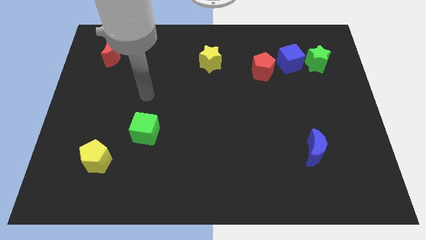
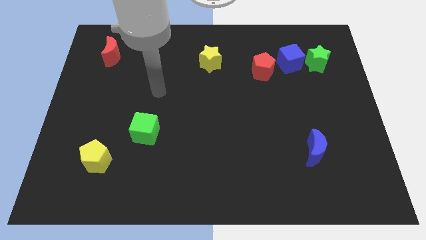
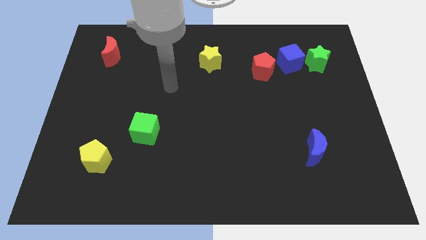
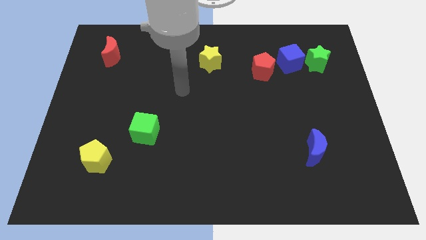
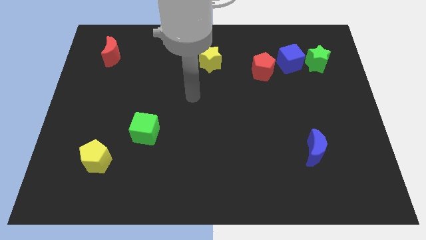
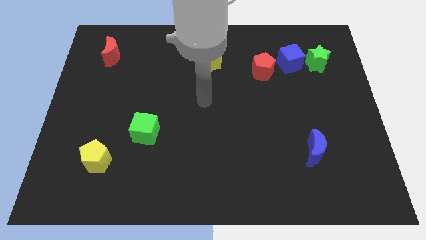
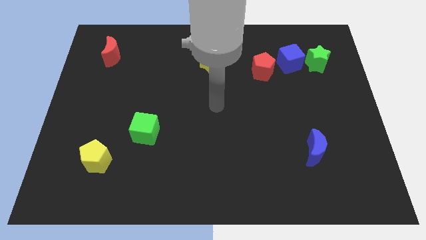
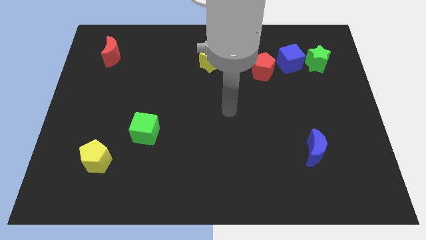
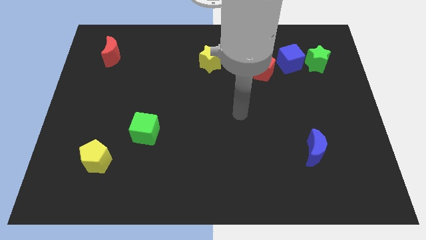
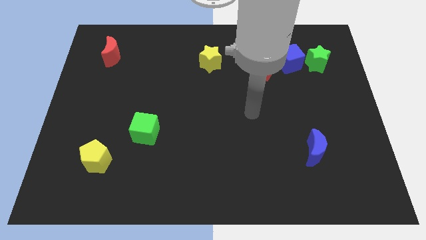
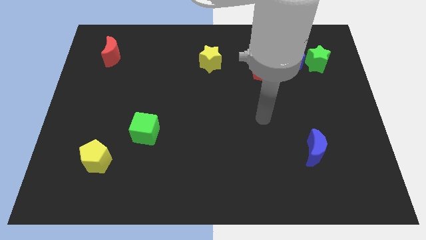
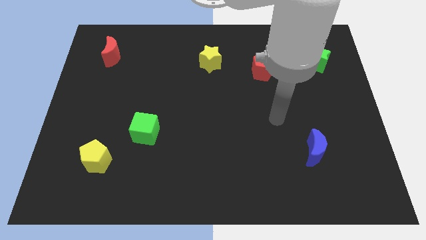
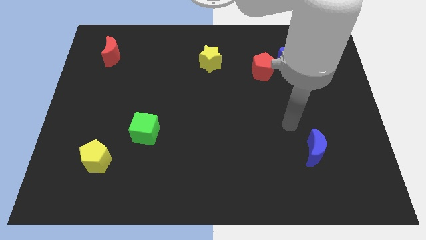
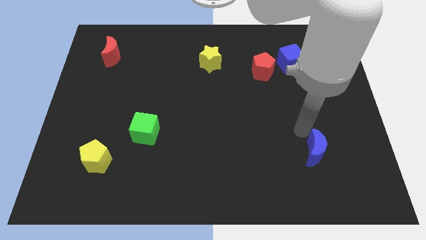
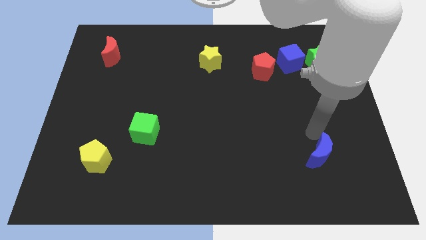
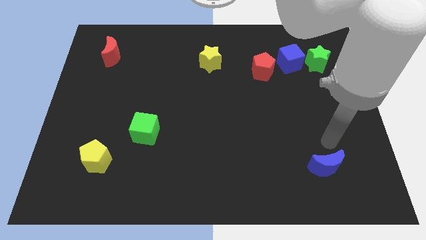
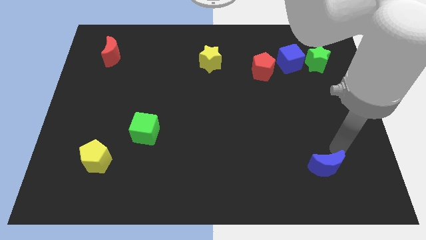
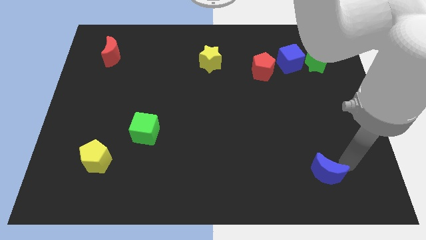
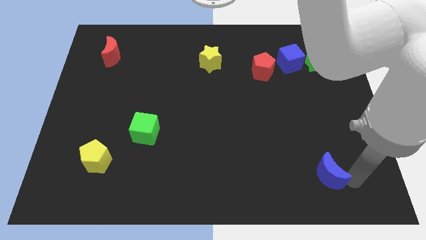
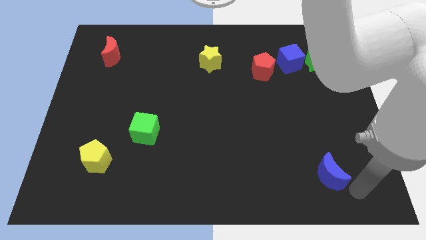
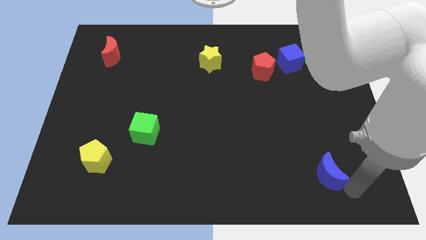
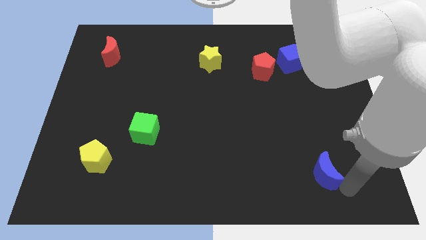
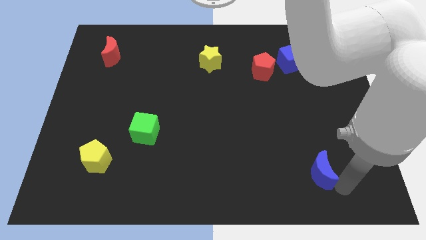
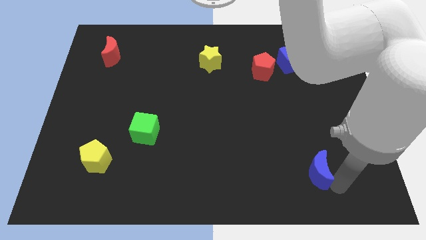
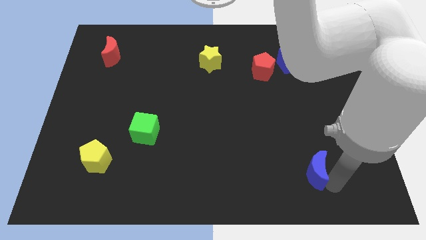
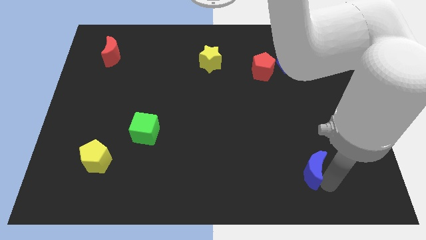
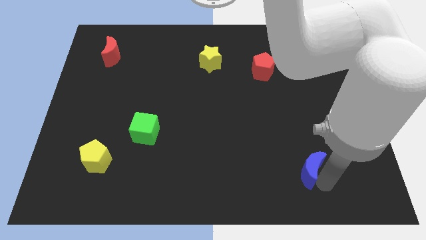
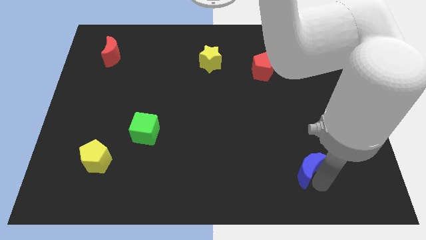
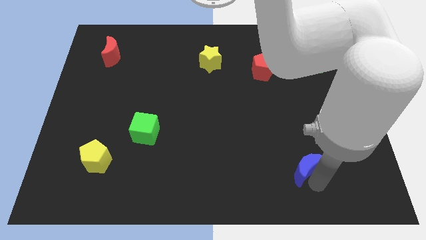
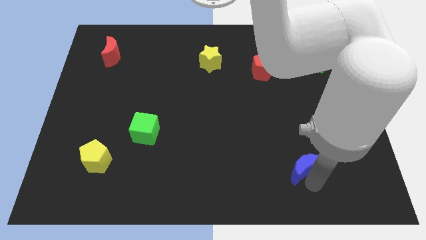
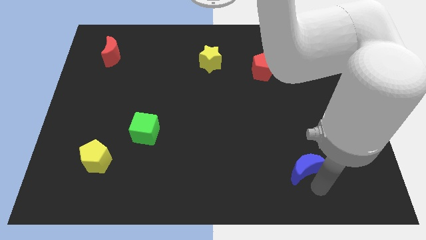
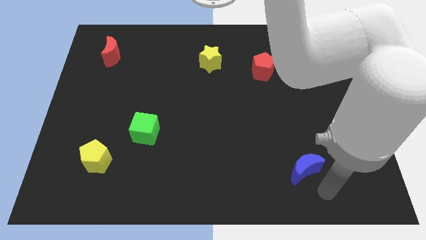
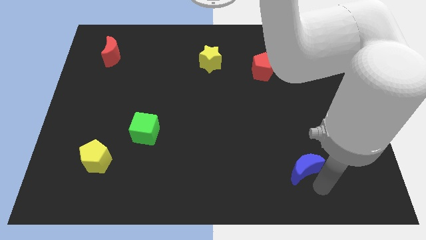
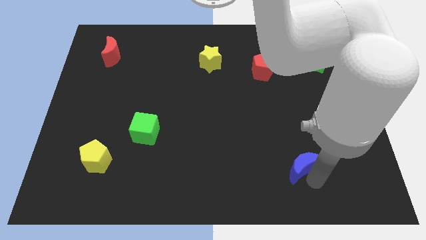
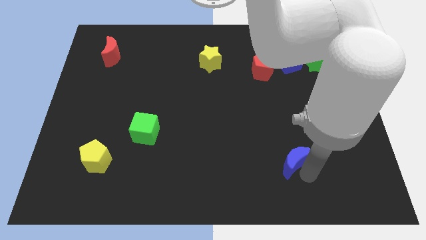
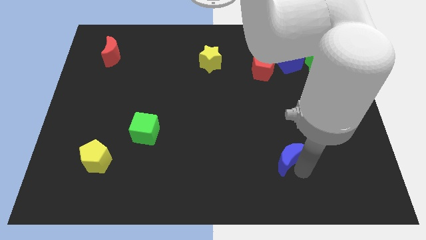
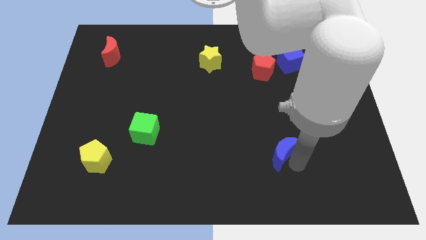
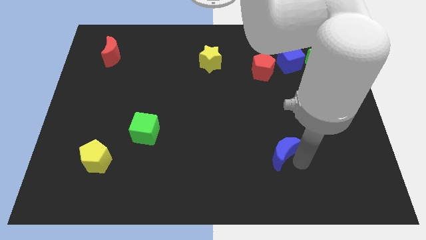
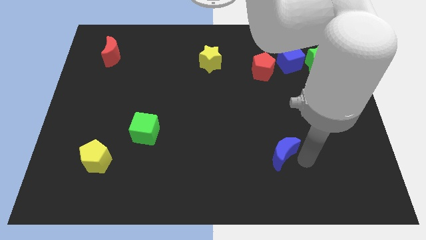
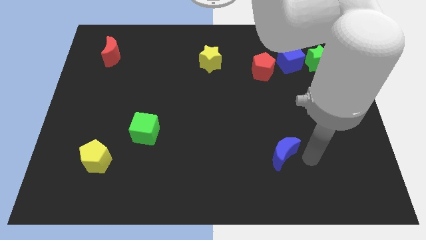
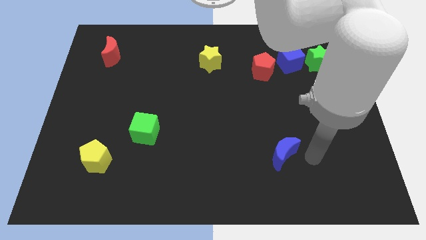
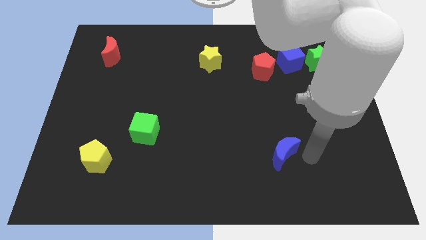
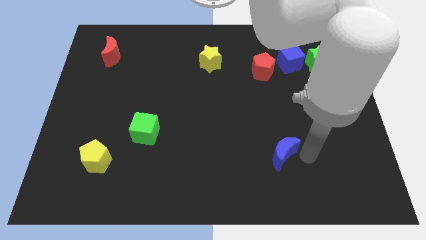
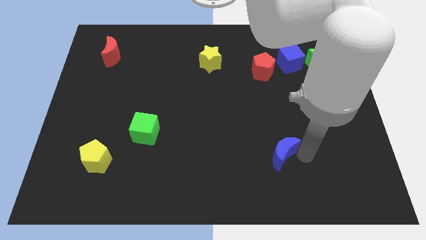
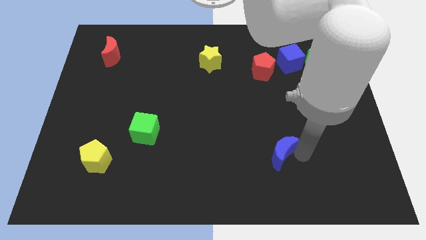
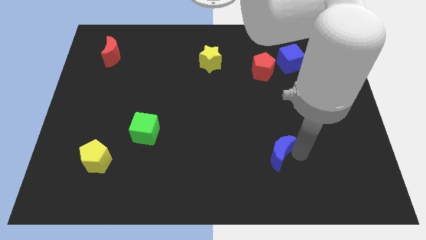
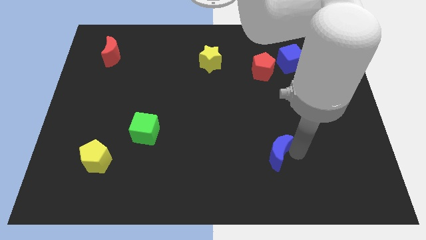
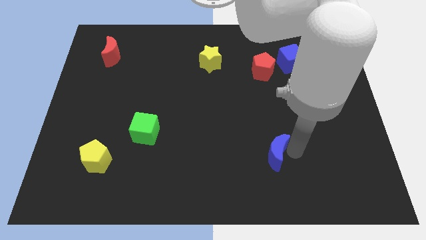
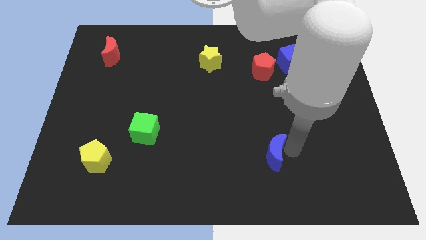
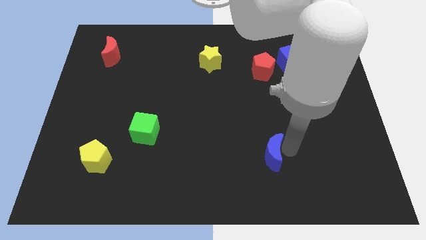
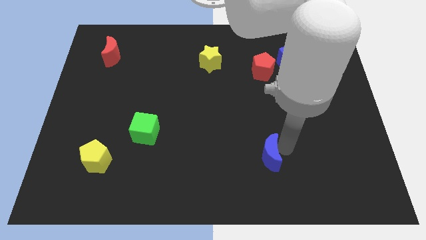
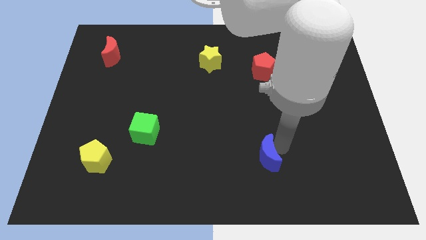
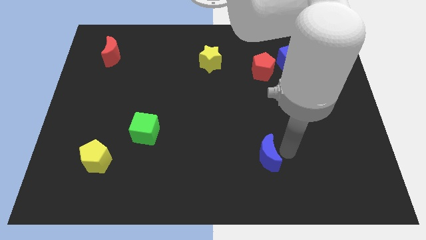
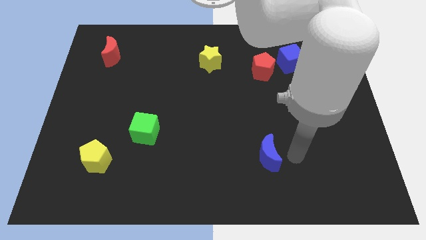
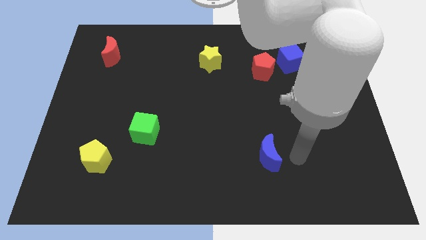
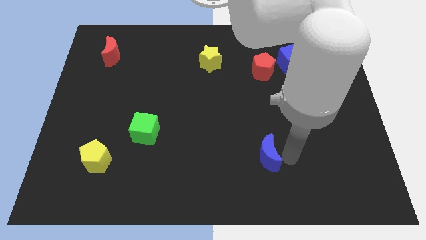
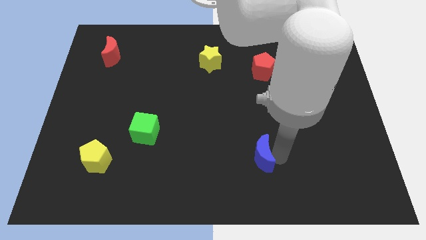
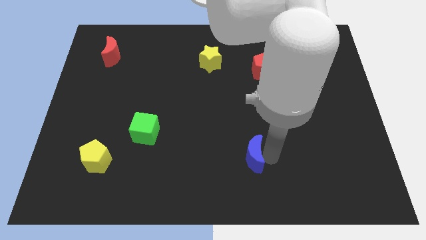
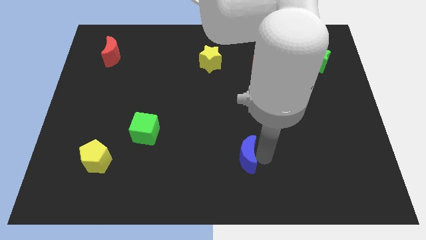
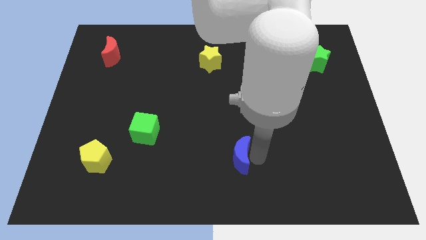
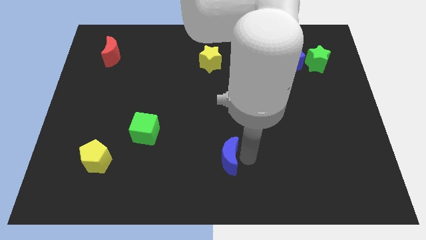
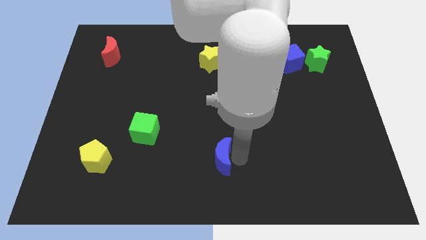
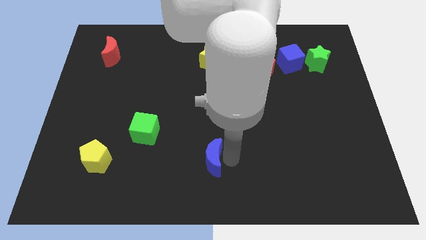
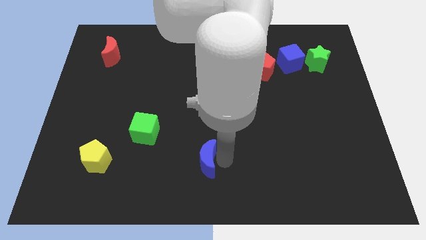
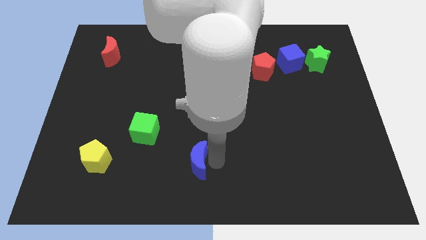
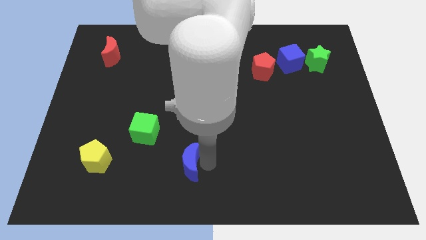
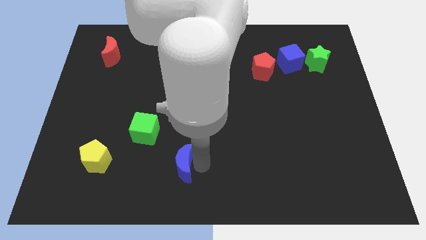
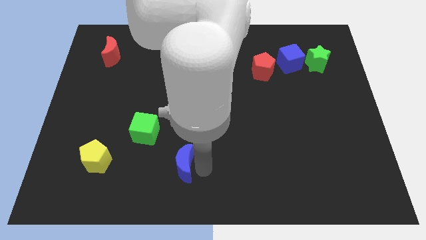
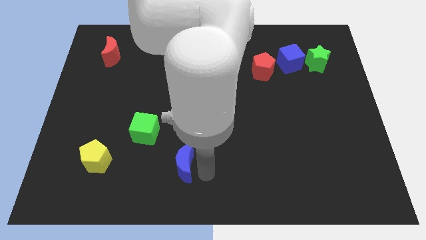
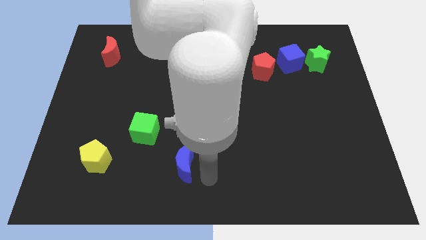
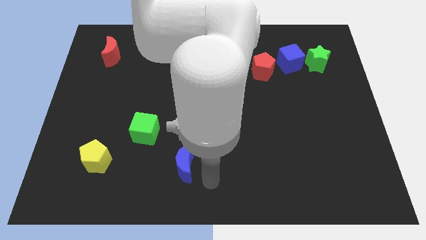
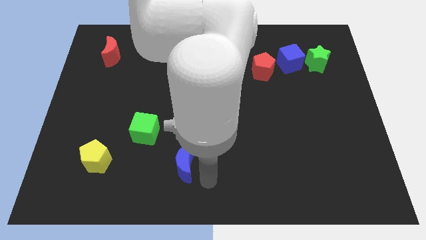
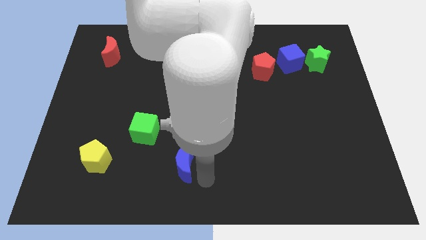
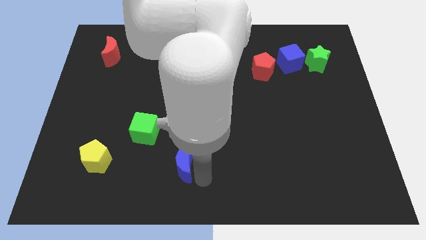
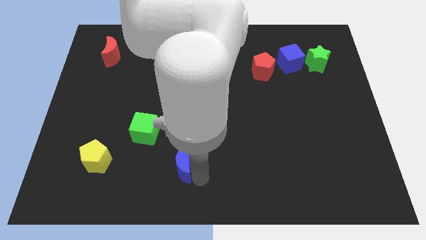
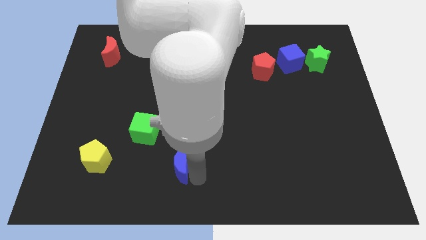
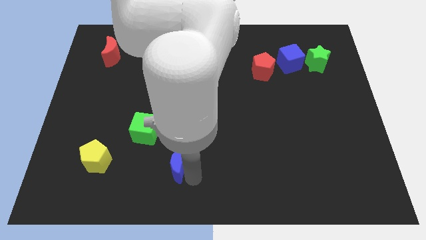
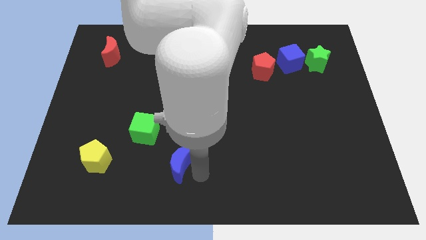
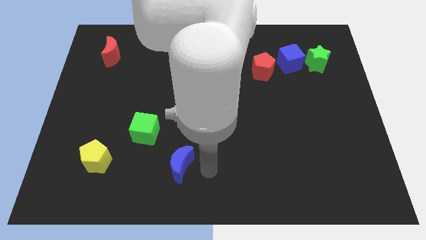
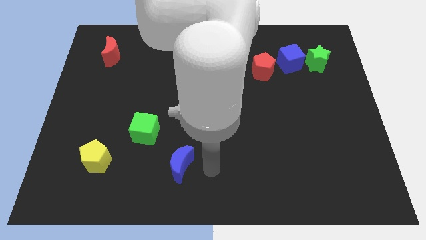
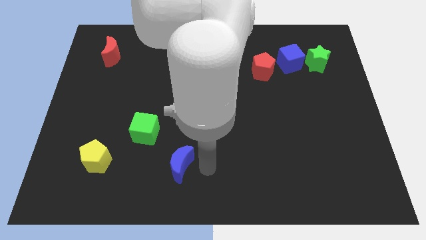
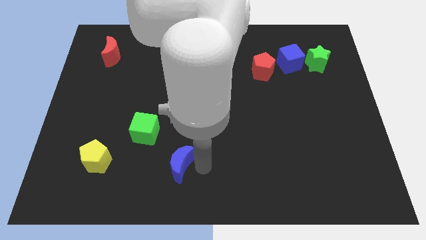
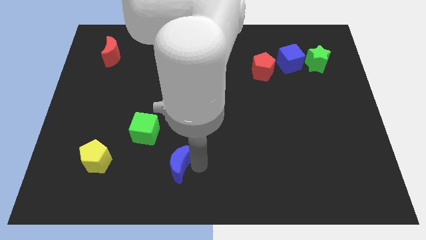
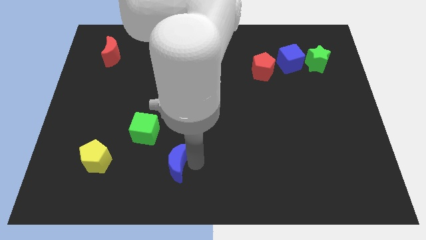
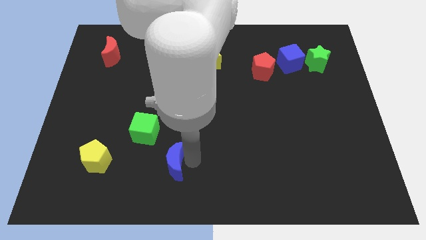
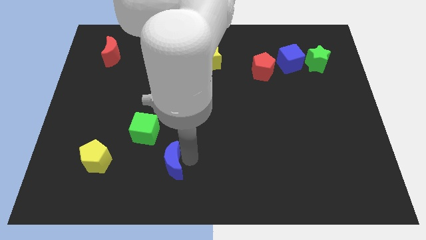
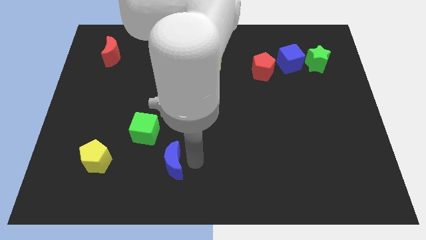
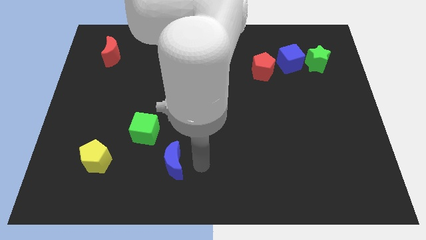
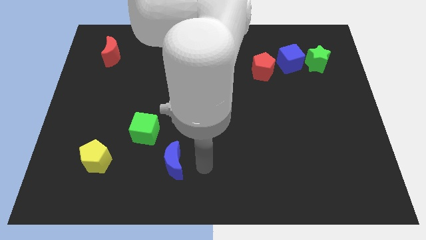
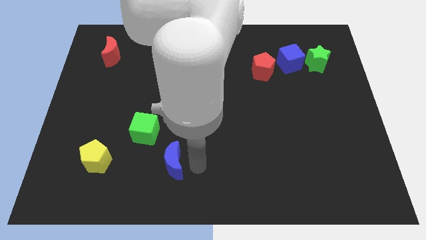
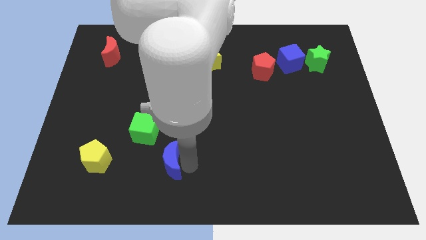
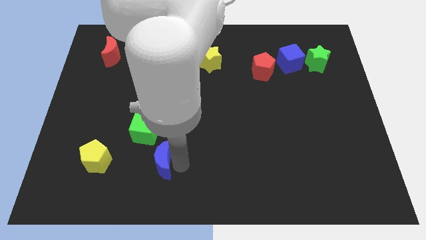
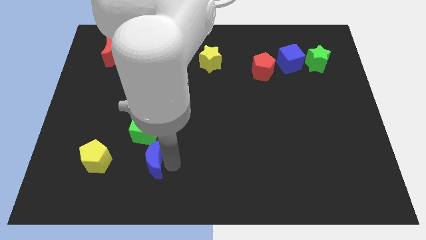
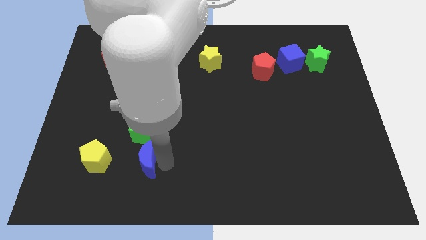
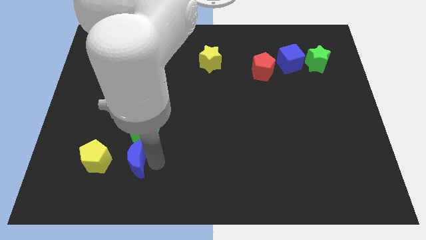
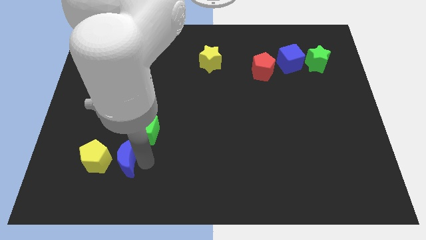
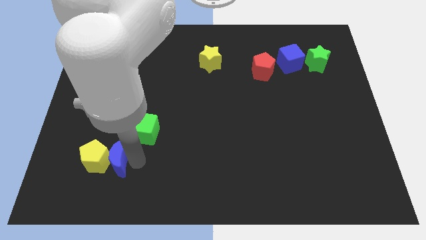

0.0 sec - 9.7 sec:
slide the blue moon towards the yellow pentagon
